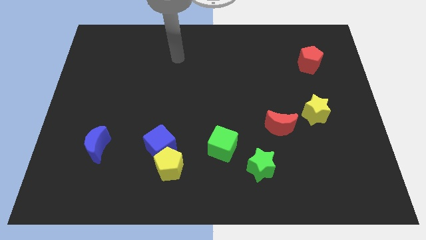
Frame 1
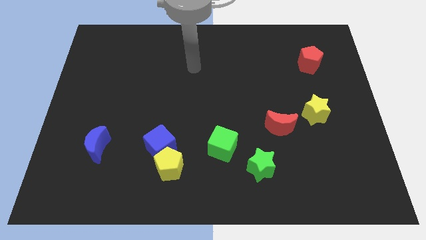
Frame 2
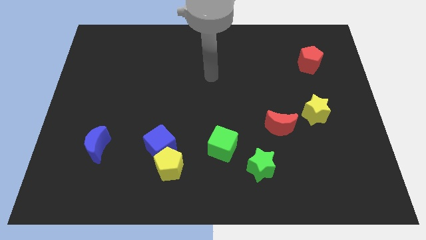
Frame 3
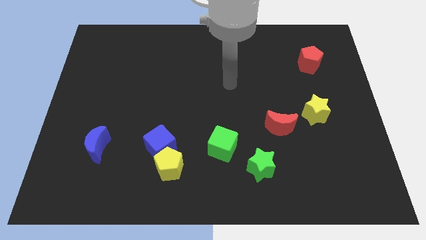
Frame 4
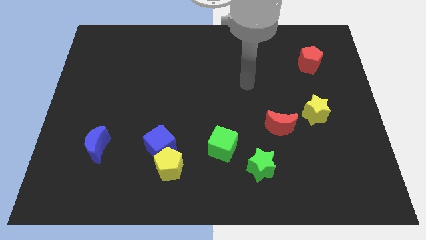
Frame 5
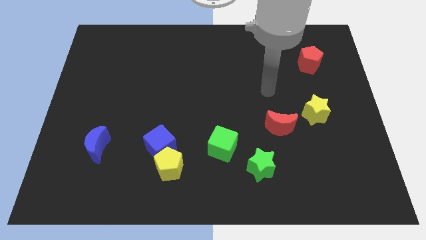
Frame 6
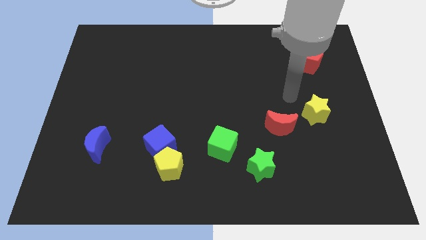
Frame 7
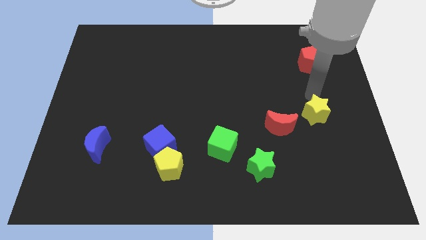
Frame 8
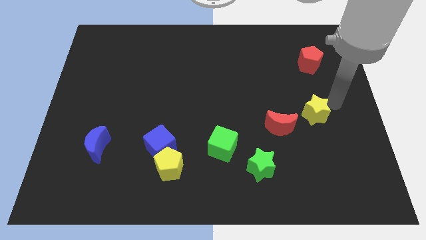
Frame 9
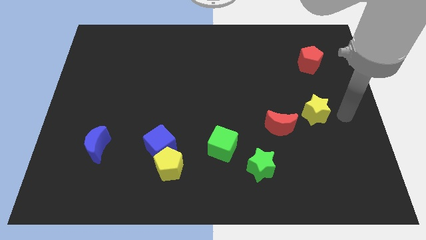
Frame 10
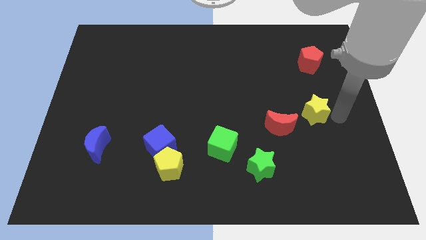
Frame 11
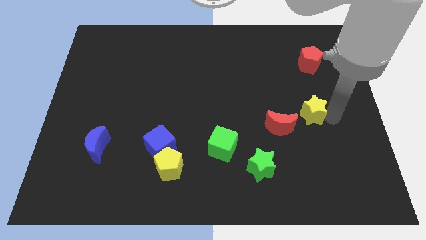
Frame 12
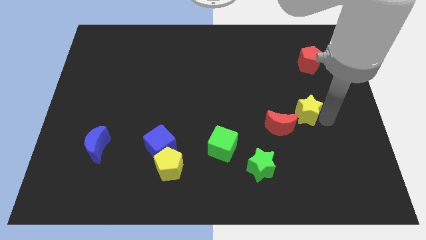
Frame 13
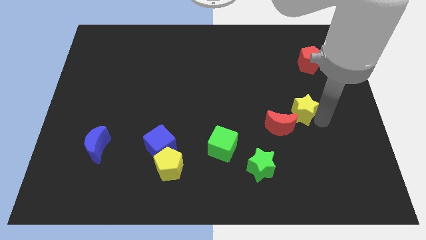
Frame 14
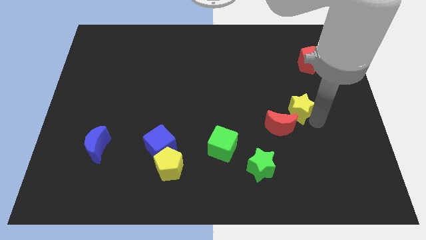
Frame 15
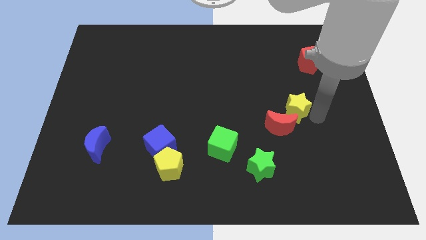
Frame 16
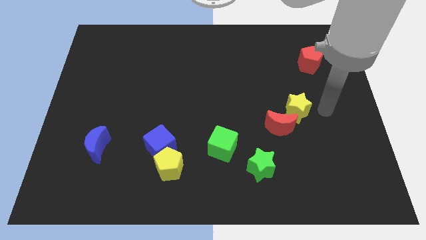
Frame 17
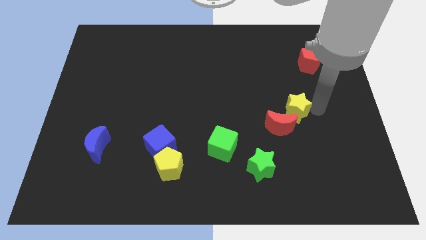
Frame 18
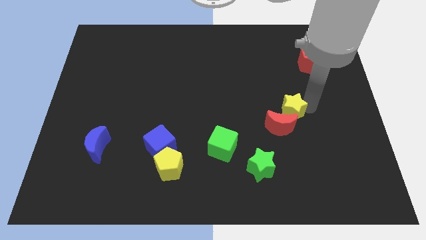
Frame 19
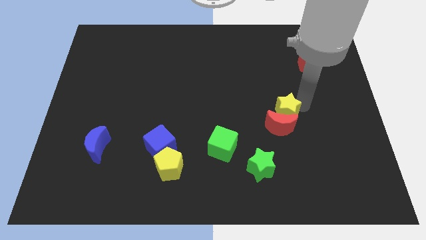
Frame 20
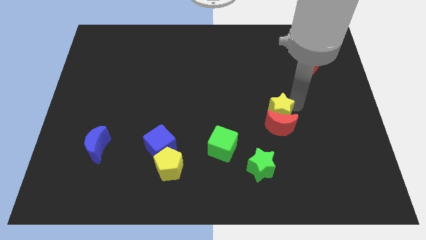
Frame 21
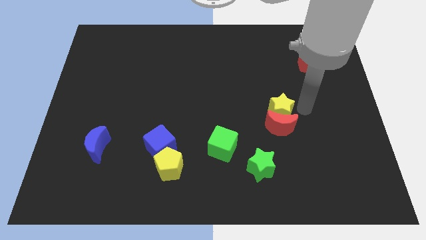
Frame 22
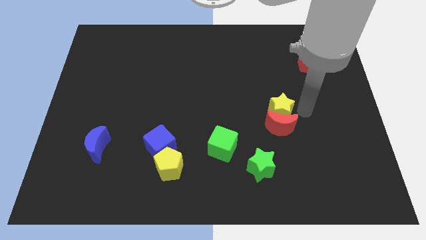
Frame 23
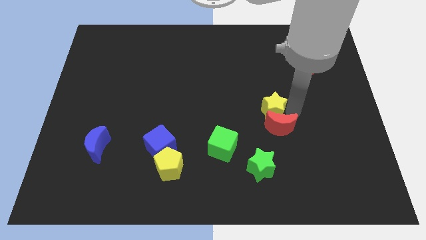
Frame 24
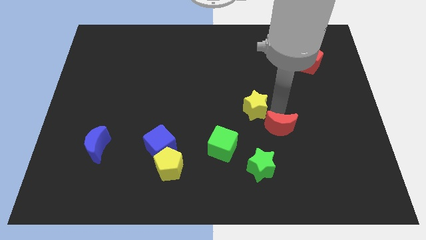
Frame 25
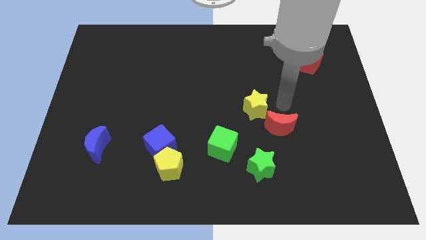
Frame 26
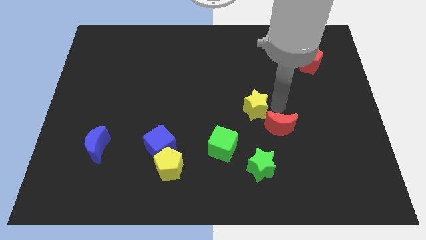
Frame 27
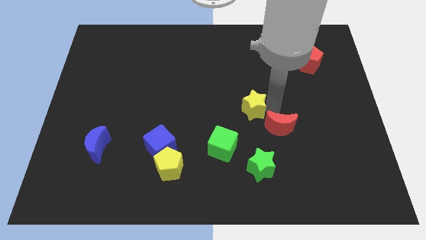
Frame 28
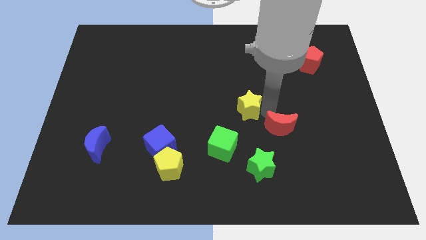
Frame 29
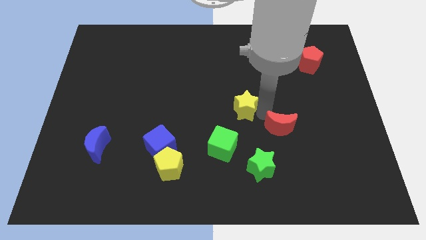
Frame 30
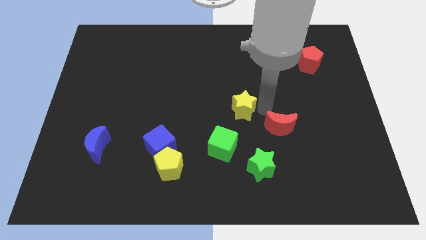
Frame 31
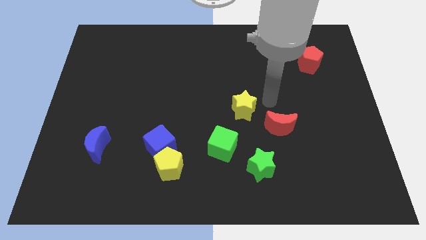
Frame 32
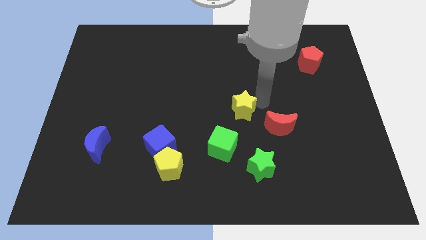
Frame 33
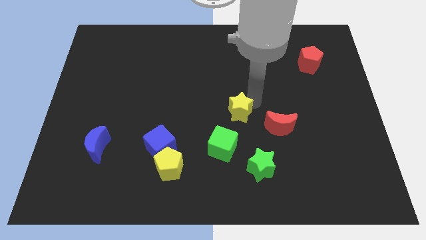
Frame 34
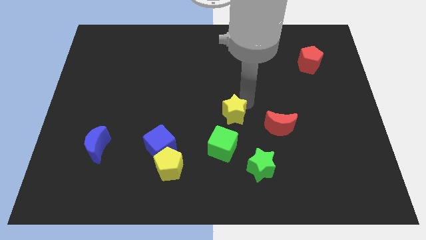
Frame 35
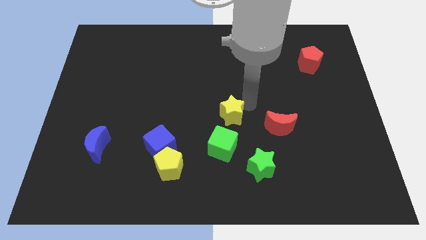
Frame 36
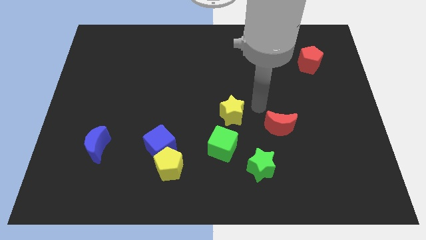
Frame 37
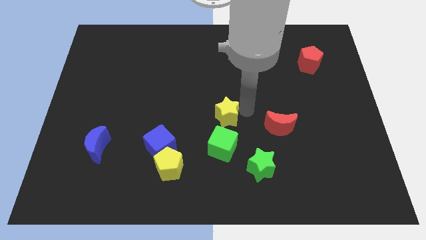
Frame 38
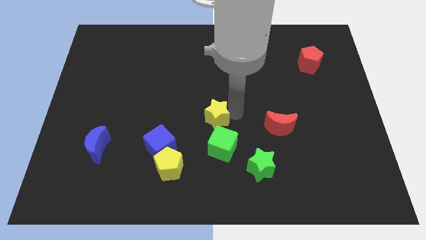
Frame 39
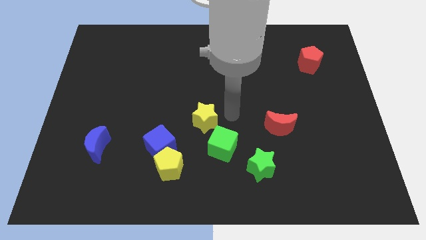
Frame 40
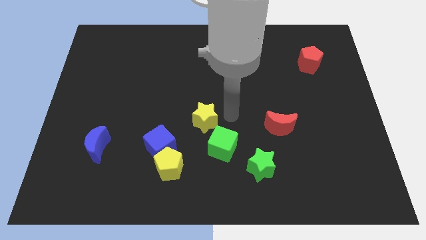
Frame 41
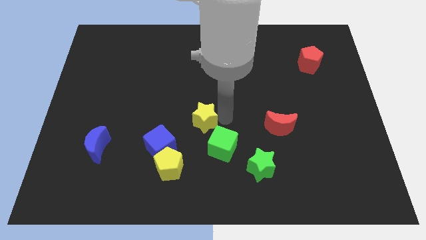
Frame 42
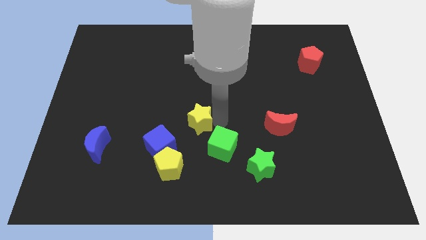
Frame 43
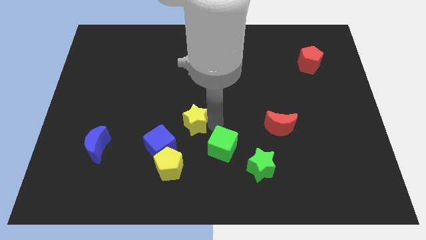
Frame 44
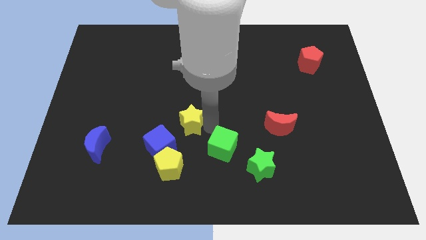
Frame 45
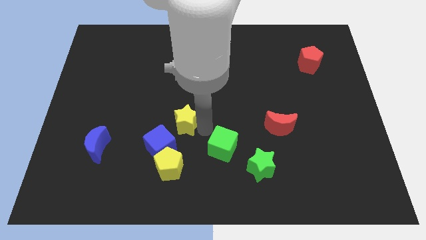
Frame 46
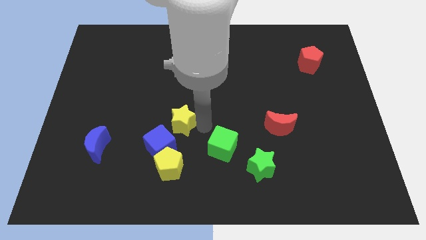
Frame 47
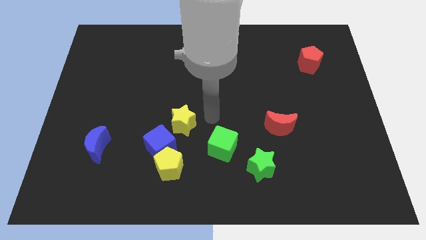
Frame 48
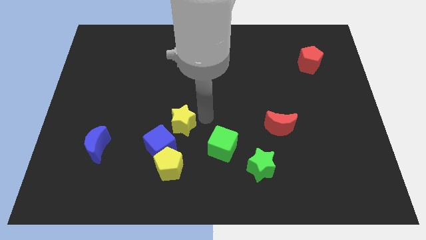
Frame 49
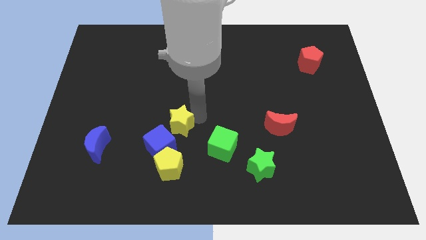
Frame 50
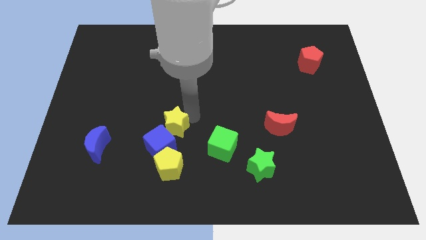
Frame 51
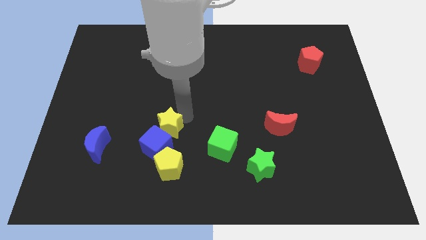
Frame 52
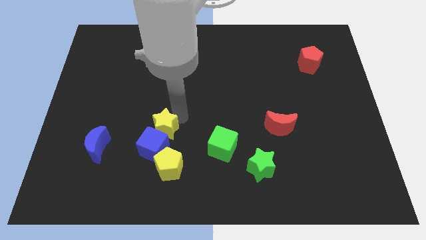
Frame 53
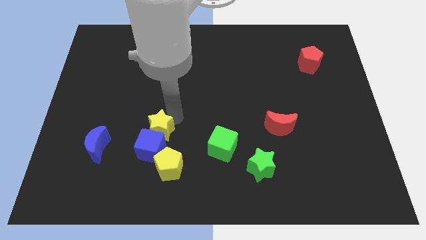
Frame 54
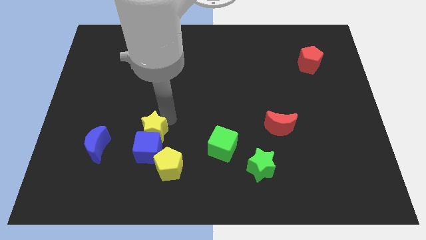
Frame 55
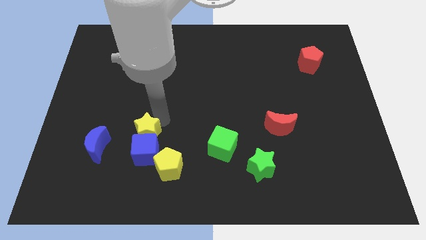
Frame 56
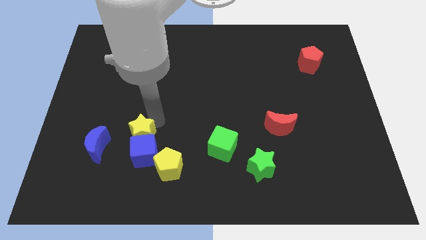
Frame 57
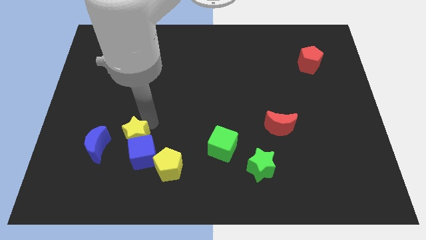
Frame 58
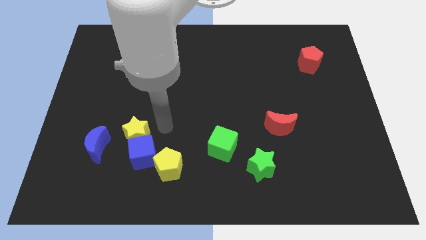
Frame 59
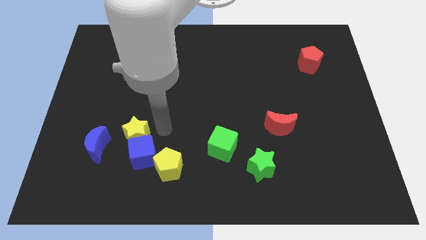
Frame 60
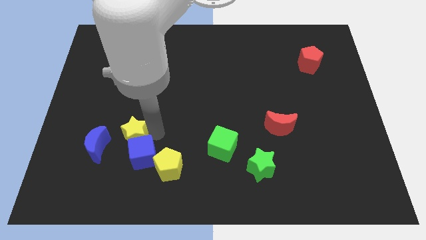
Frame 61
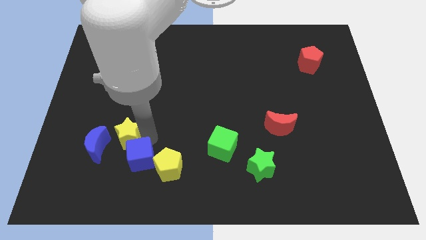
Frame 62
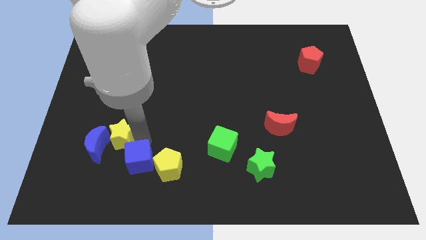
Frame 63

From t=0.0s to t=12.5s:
move the yellow star towards the blue moon
